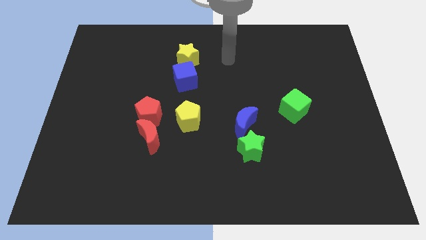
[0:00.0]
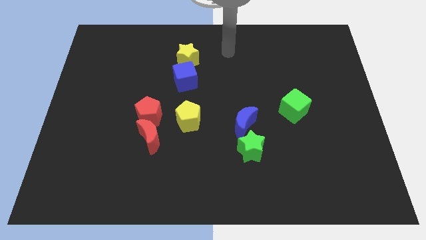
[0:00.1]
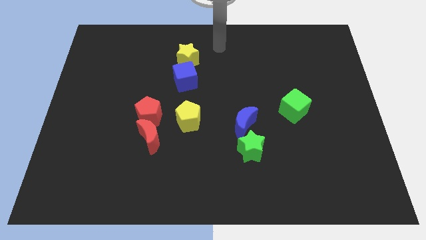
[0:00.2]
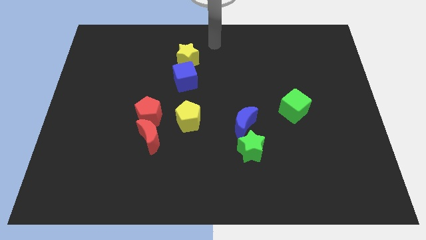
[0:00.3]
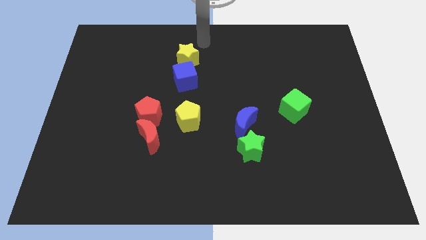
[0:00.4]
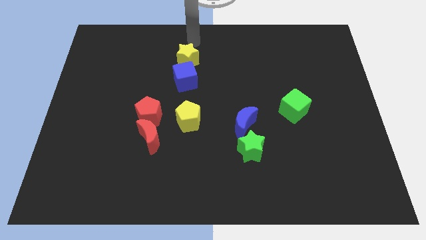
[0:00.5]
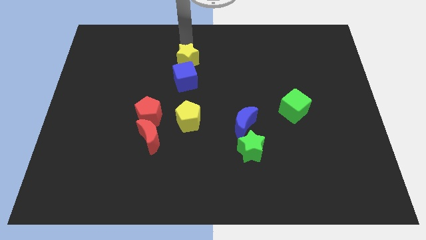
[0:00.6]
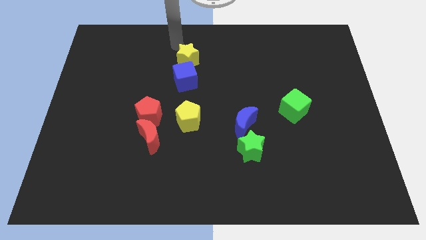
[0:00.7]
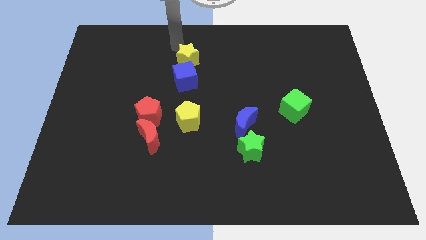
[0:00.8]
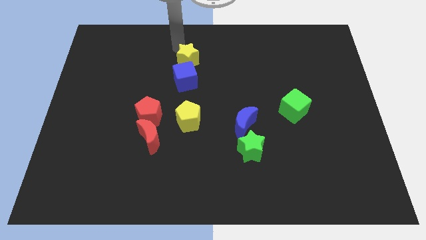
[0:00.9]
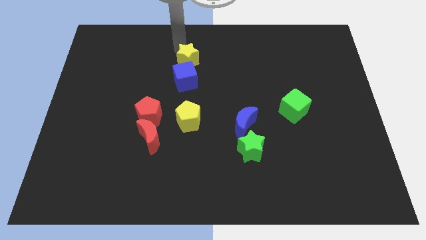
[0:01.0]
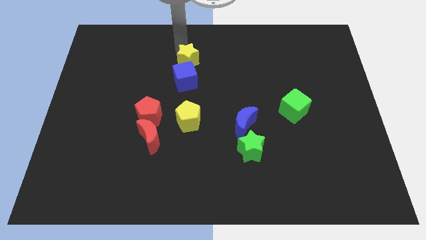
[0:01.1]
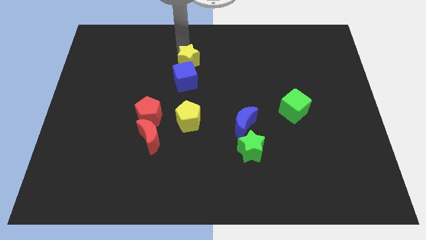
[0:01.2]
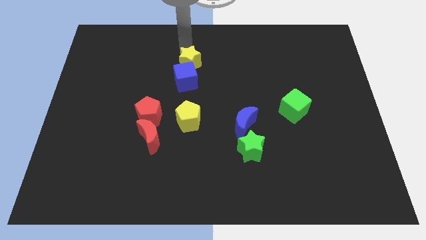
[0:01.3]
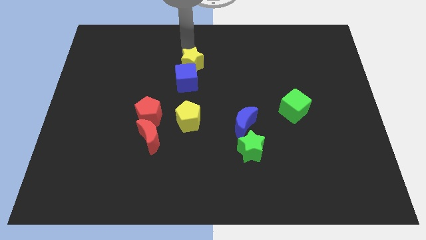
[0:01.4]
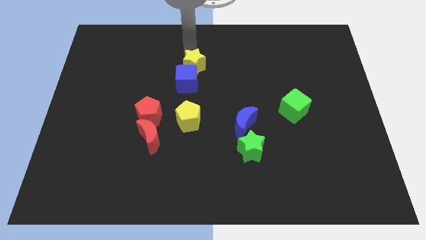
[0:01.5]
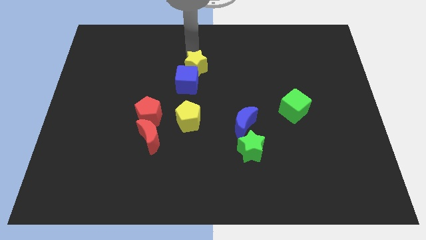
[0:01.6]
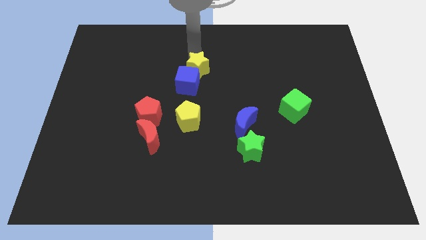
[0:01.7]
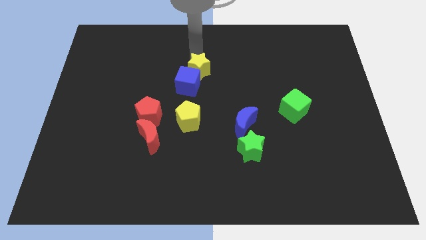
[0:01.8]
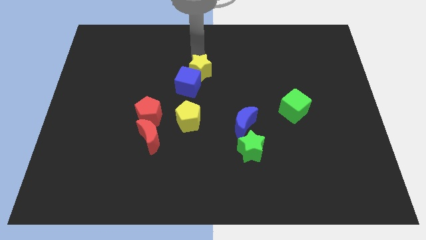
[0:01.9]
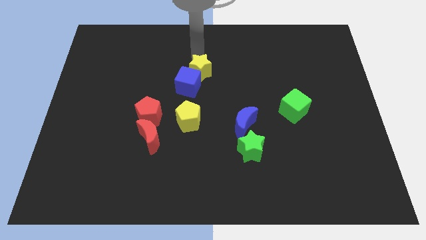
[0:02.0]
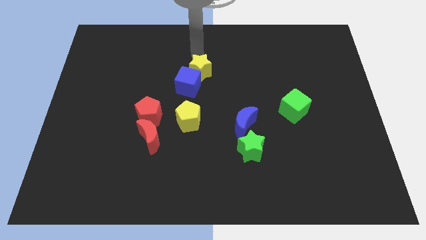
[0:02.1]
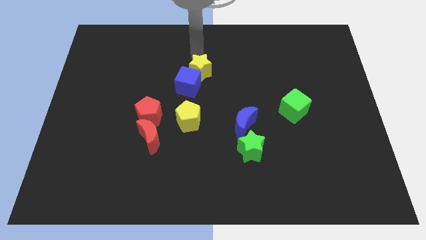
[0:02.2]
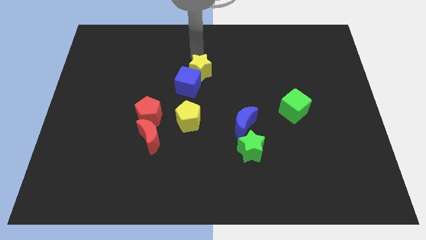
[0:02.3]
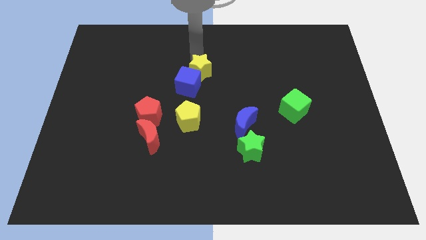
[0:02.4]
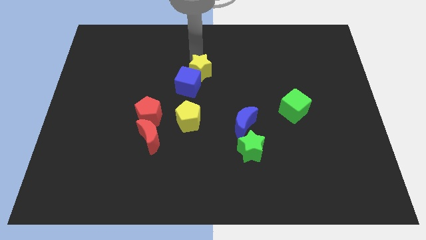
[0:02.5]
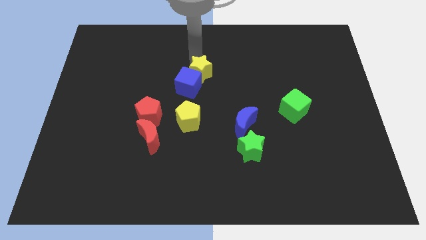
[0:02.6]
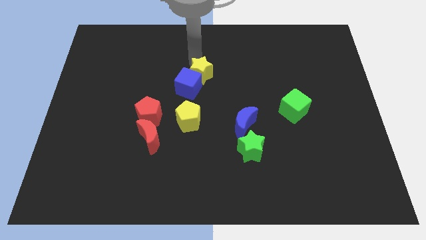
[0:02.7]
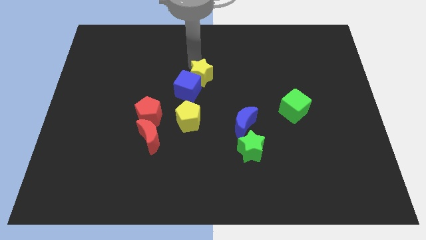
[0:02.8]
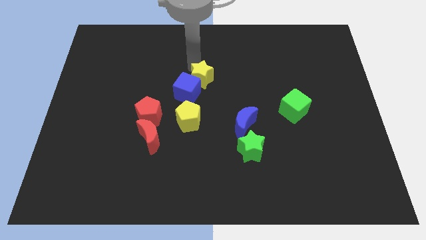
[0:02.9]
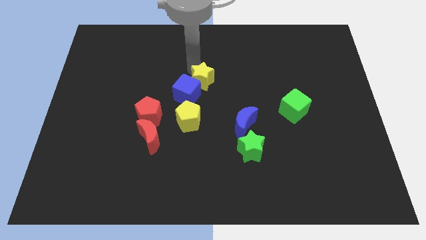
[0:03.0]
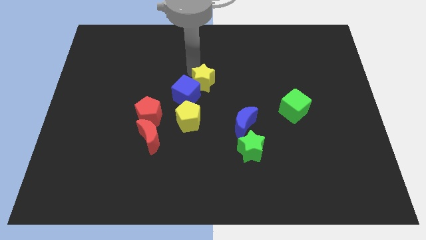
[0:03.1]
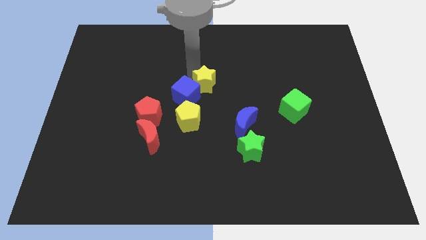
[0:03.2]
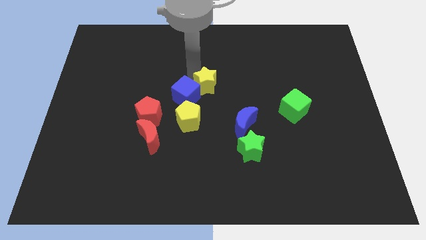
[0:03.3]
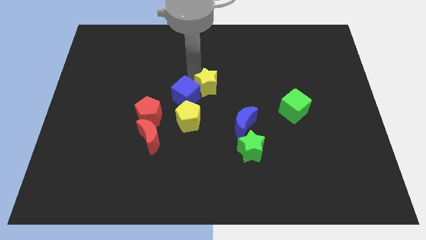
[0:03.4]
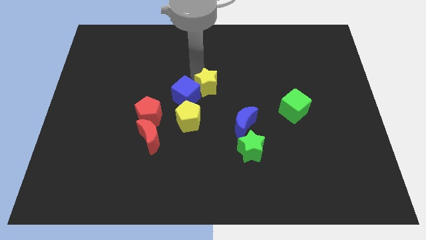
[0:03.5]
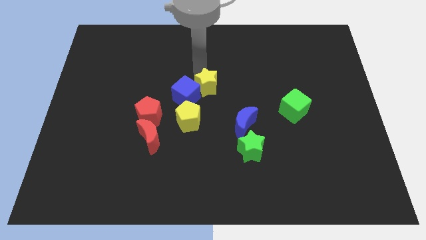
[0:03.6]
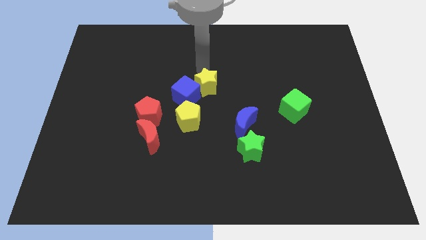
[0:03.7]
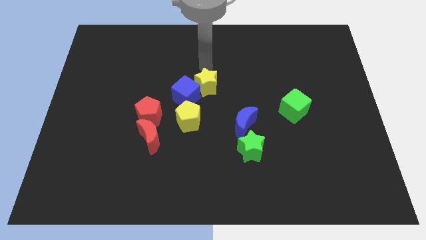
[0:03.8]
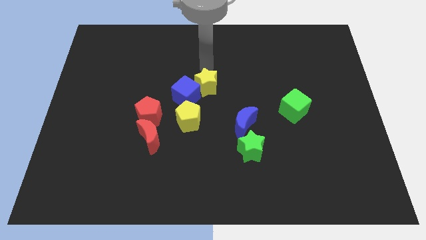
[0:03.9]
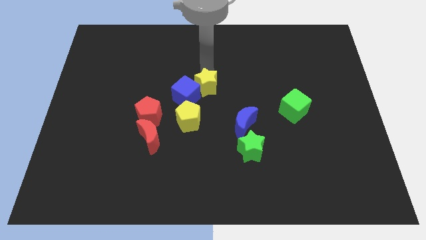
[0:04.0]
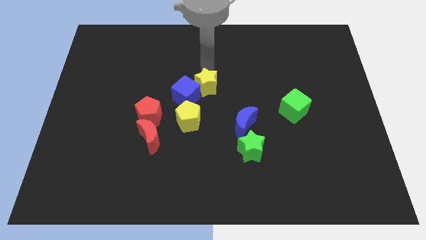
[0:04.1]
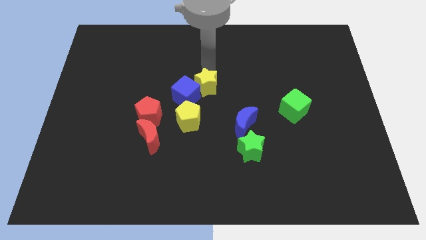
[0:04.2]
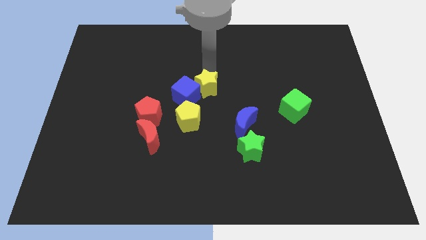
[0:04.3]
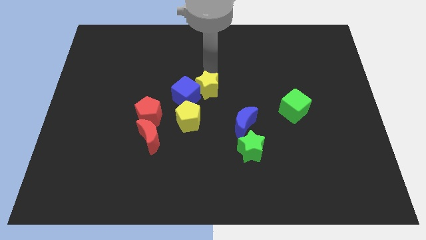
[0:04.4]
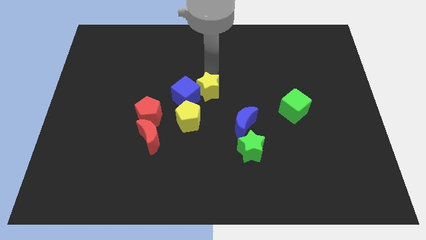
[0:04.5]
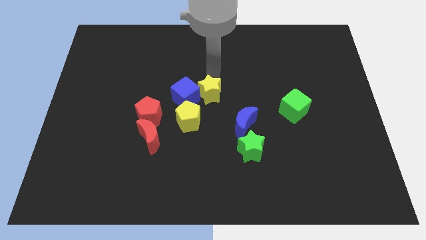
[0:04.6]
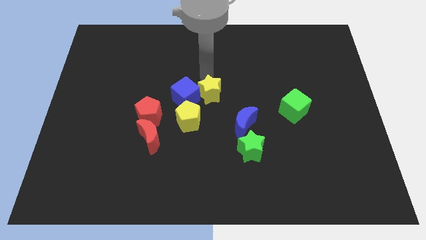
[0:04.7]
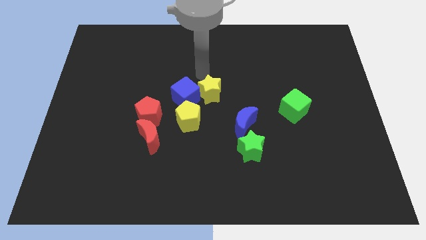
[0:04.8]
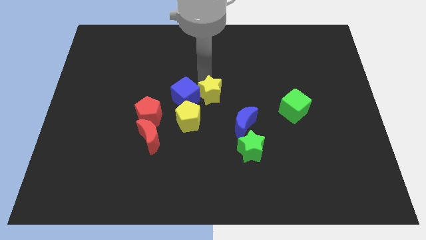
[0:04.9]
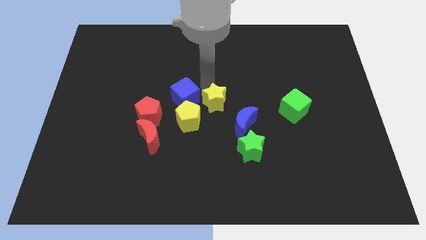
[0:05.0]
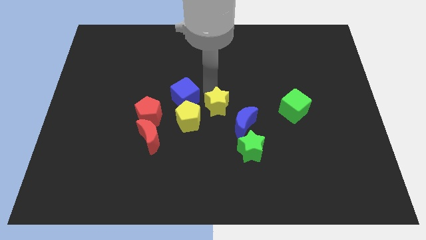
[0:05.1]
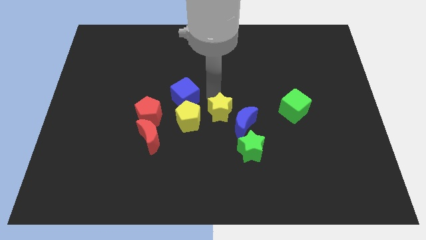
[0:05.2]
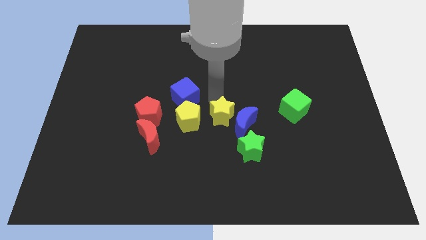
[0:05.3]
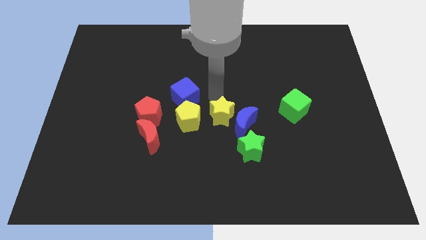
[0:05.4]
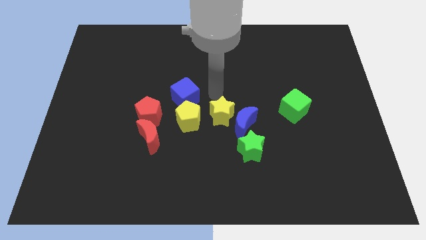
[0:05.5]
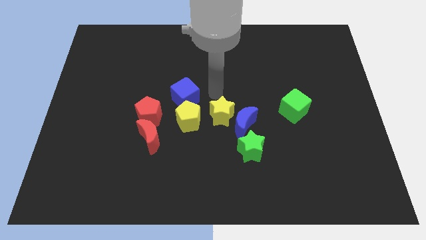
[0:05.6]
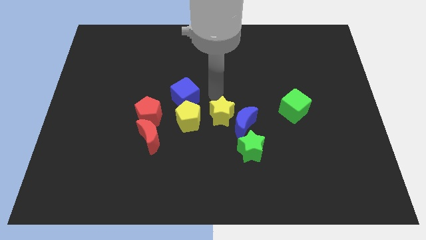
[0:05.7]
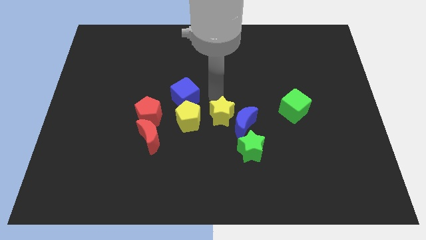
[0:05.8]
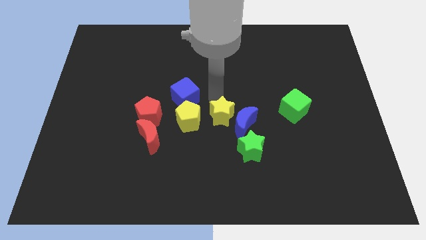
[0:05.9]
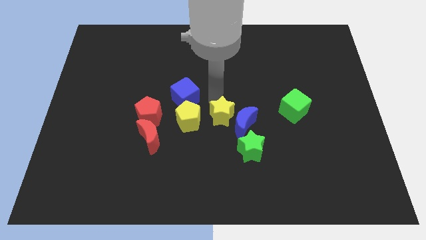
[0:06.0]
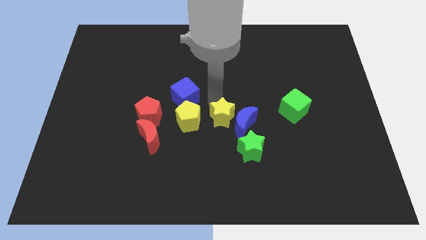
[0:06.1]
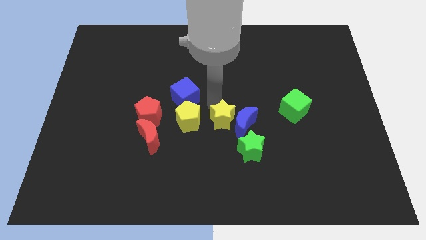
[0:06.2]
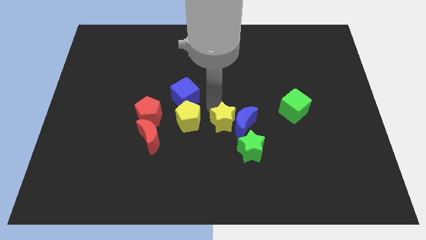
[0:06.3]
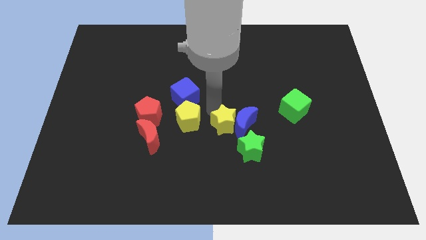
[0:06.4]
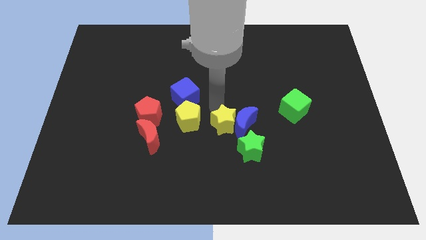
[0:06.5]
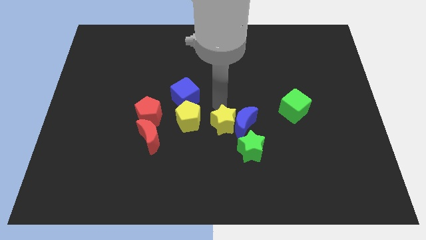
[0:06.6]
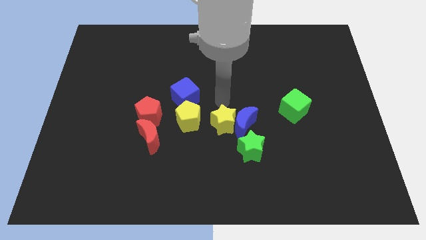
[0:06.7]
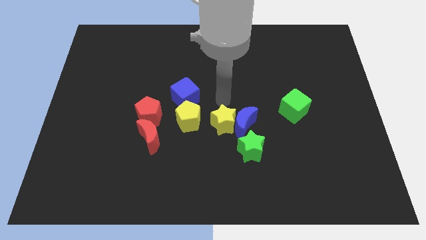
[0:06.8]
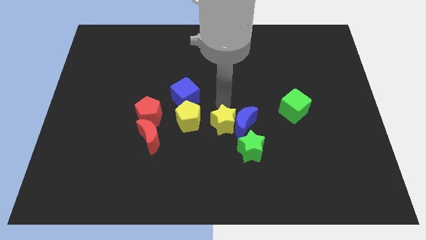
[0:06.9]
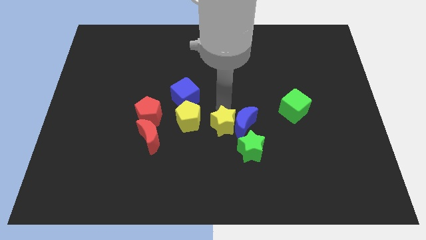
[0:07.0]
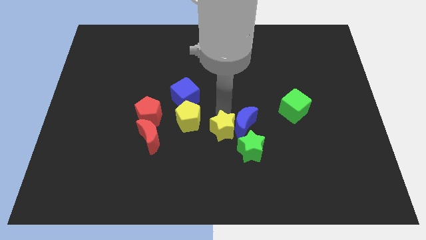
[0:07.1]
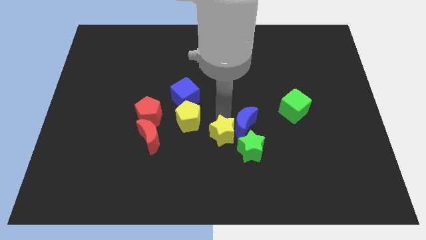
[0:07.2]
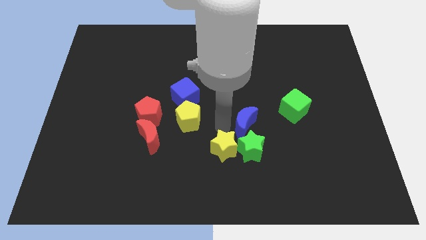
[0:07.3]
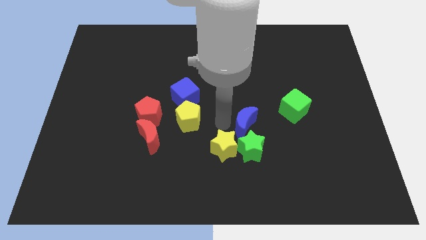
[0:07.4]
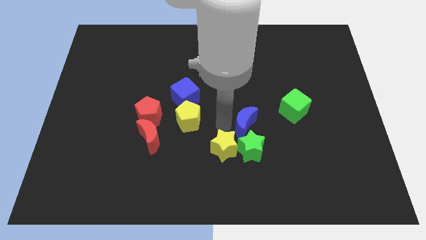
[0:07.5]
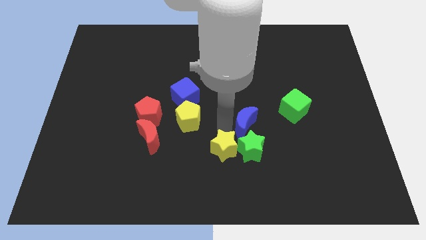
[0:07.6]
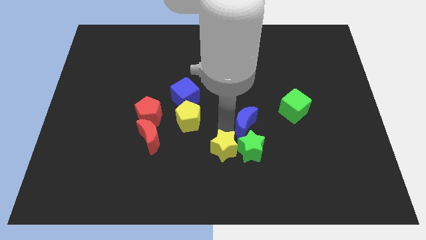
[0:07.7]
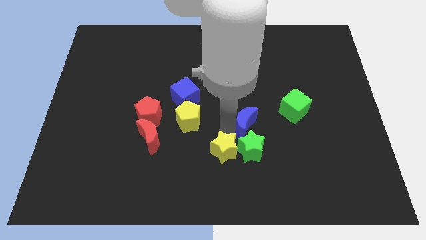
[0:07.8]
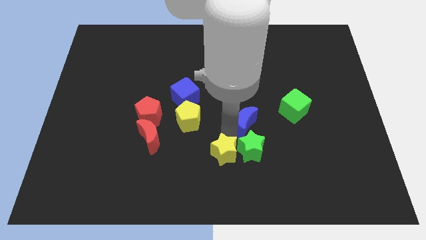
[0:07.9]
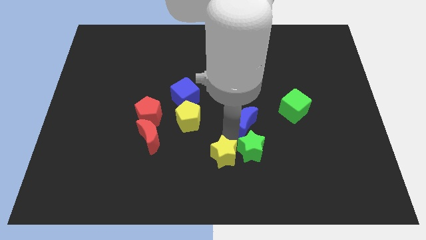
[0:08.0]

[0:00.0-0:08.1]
slide the yellow star to the bottom
